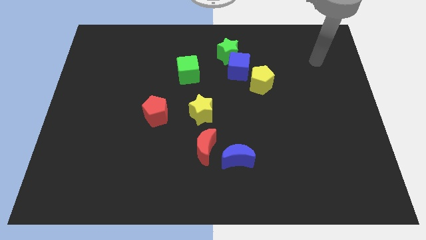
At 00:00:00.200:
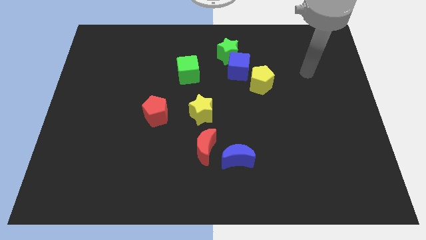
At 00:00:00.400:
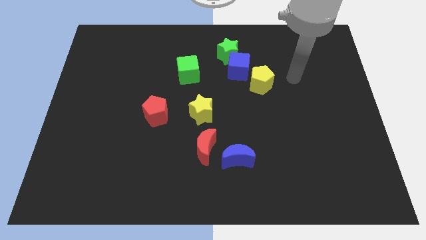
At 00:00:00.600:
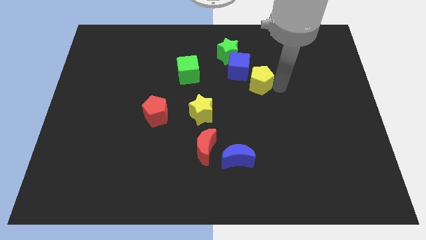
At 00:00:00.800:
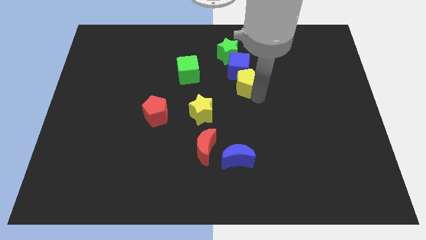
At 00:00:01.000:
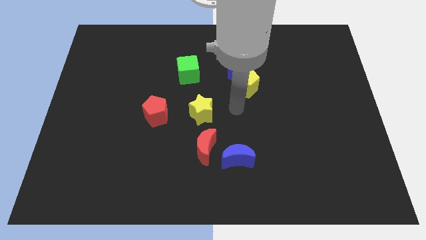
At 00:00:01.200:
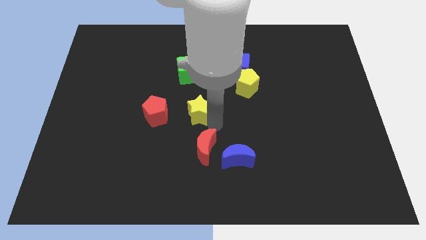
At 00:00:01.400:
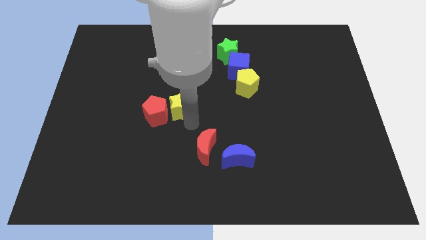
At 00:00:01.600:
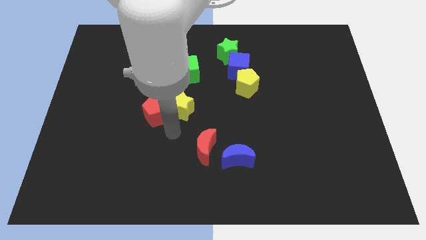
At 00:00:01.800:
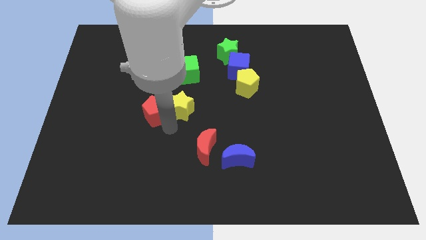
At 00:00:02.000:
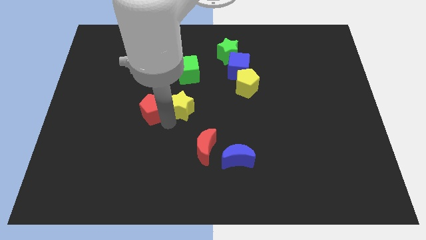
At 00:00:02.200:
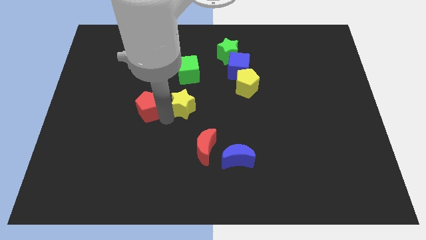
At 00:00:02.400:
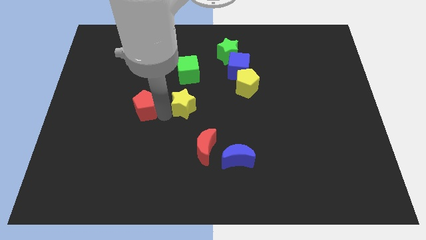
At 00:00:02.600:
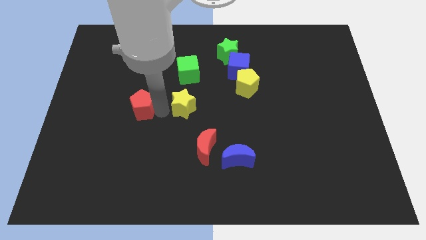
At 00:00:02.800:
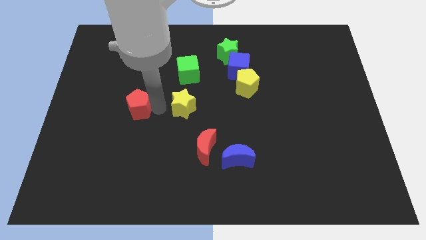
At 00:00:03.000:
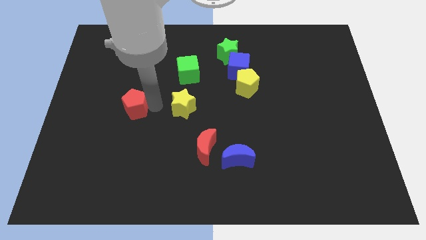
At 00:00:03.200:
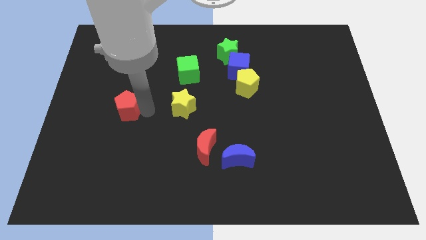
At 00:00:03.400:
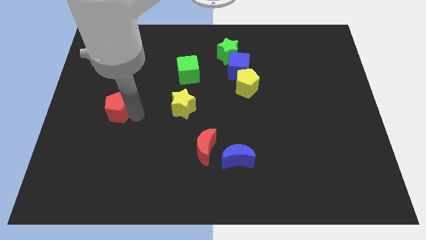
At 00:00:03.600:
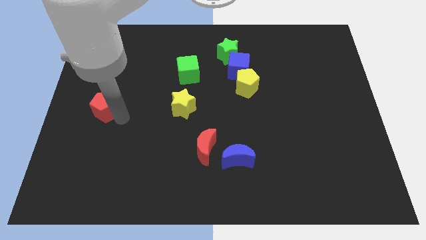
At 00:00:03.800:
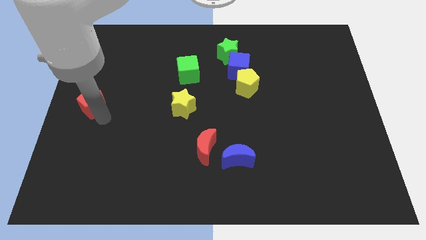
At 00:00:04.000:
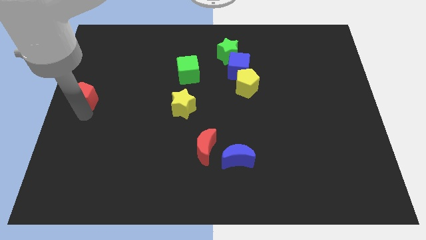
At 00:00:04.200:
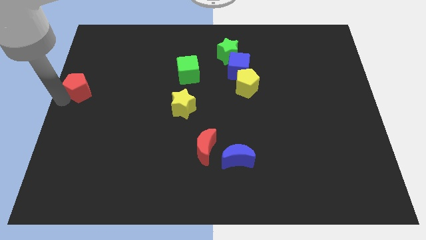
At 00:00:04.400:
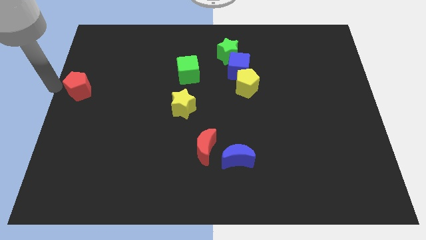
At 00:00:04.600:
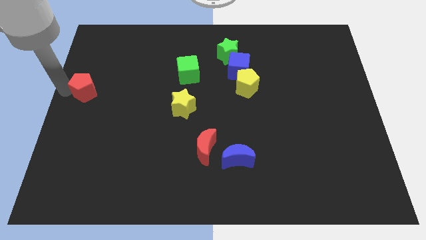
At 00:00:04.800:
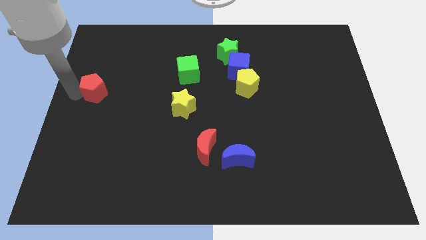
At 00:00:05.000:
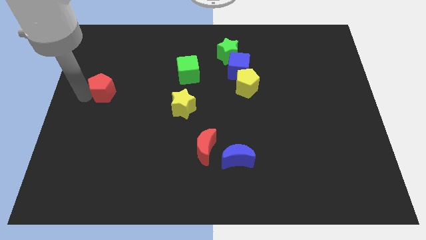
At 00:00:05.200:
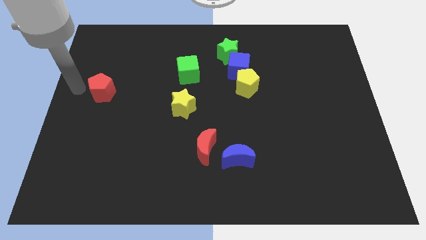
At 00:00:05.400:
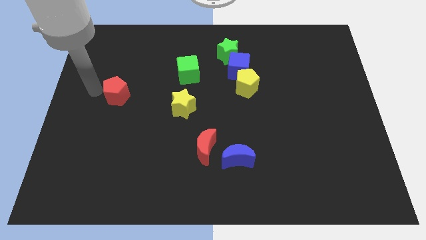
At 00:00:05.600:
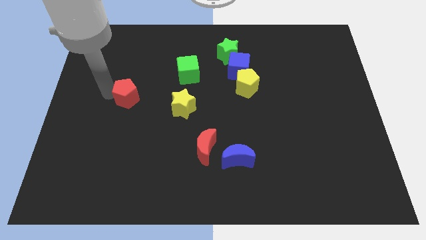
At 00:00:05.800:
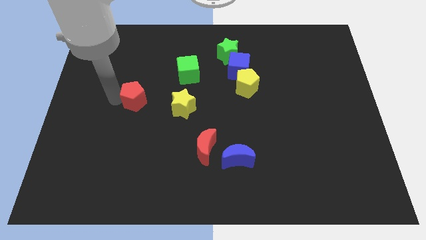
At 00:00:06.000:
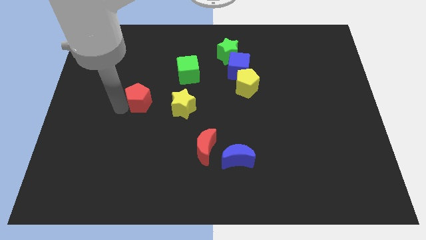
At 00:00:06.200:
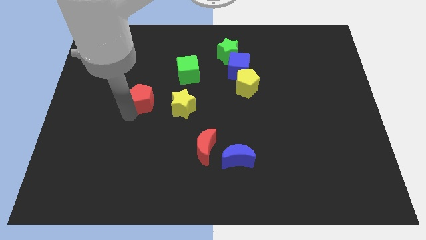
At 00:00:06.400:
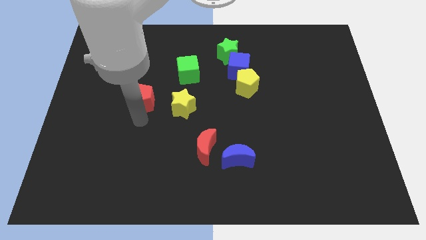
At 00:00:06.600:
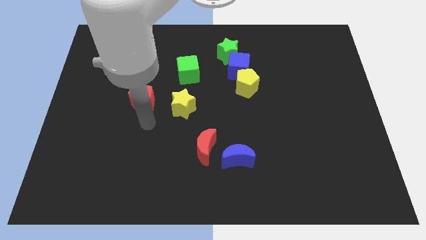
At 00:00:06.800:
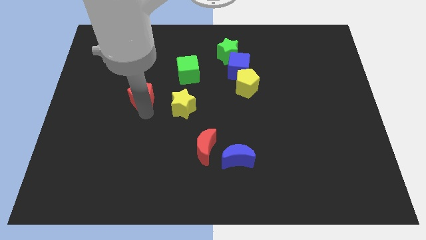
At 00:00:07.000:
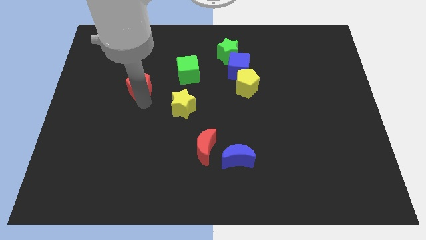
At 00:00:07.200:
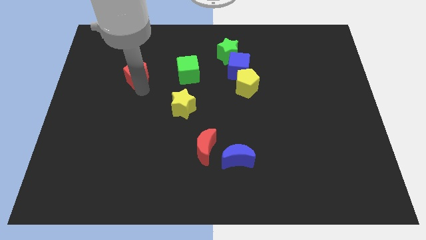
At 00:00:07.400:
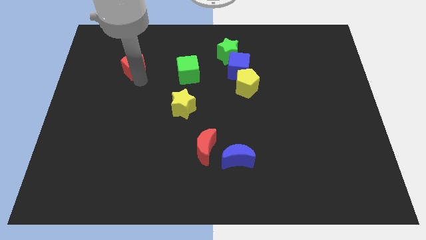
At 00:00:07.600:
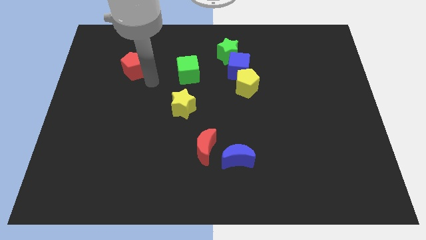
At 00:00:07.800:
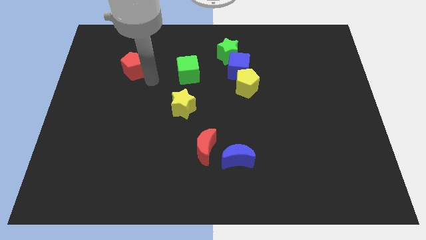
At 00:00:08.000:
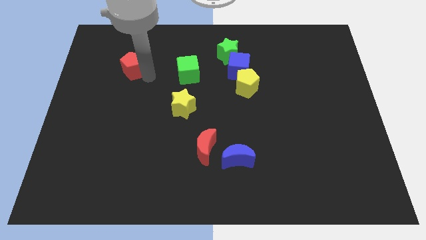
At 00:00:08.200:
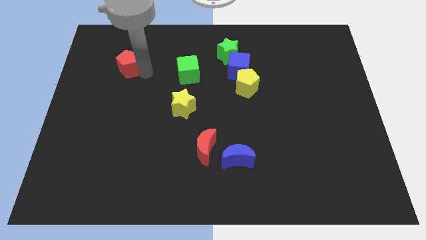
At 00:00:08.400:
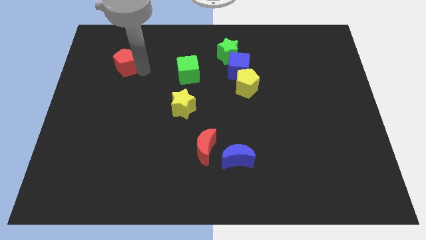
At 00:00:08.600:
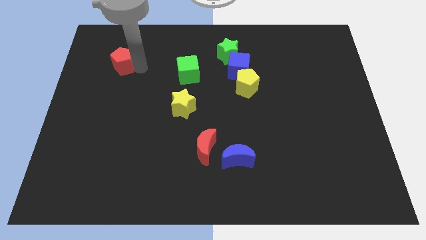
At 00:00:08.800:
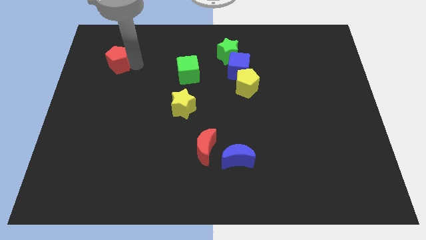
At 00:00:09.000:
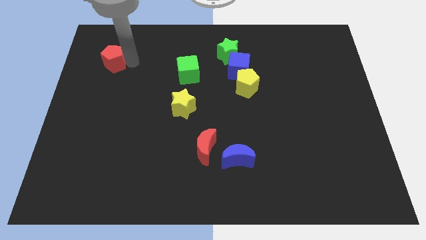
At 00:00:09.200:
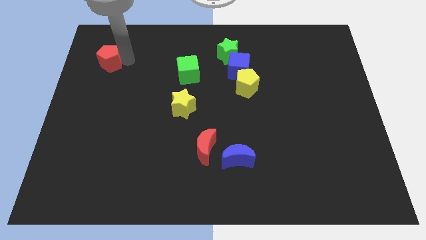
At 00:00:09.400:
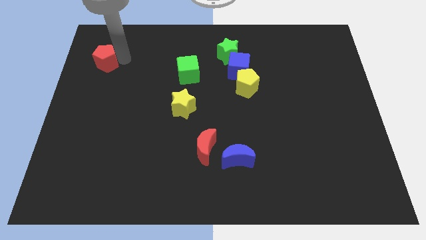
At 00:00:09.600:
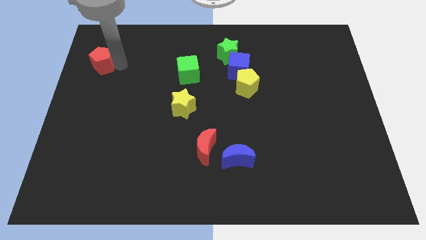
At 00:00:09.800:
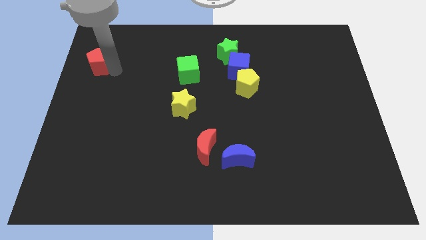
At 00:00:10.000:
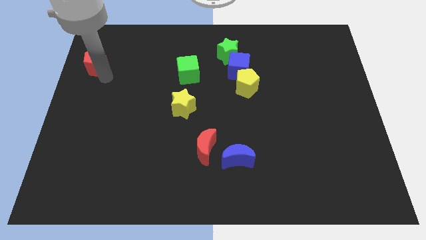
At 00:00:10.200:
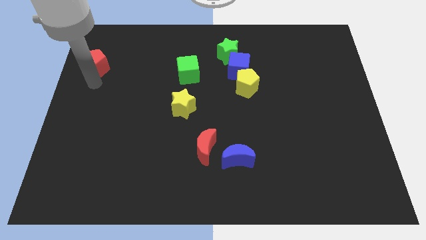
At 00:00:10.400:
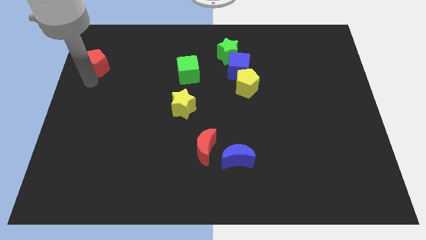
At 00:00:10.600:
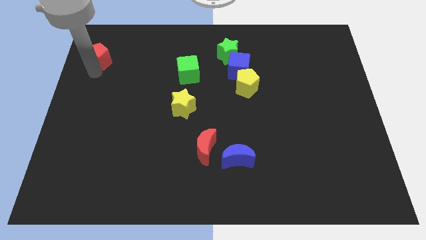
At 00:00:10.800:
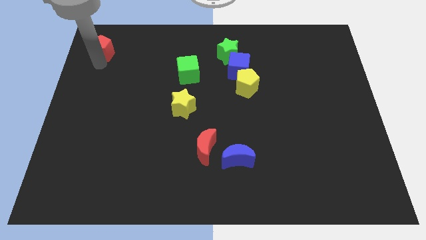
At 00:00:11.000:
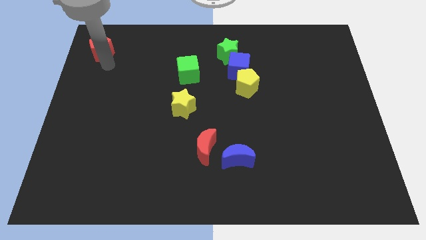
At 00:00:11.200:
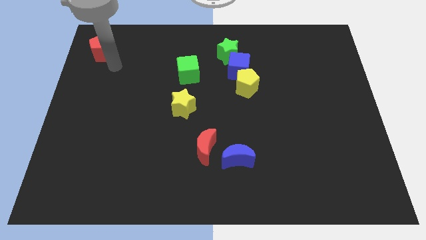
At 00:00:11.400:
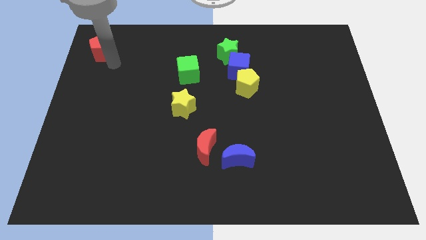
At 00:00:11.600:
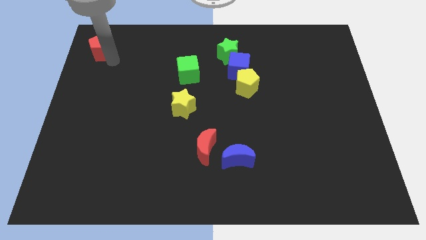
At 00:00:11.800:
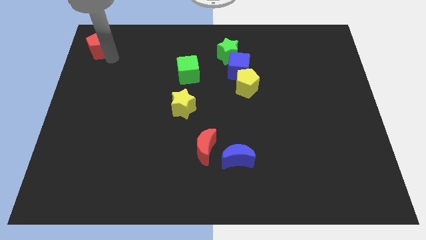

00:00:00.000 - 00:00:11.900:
move the red pentagon to the top left

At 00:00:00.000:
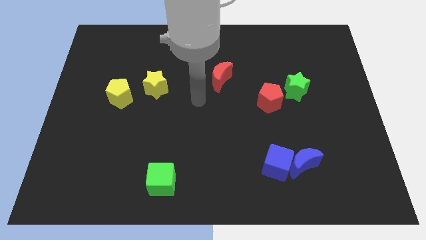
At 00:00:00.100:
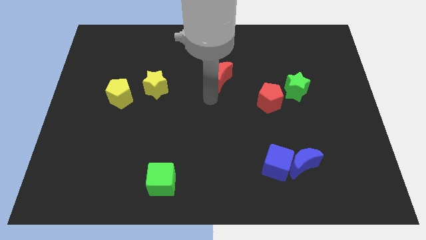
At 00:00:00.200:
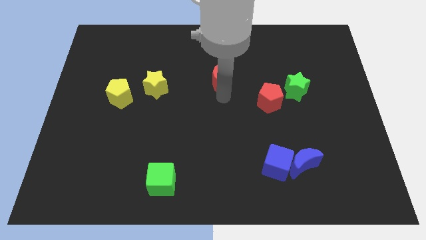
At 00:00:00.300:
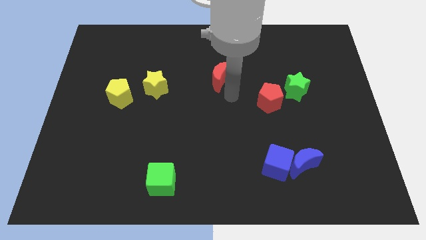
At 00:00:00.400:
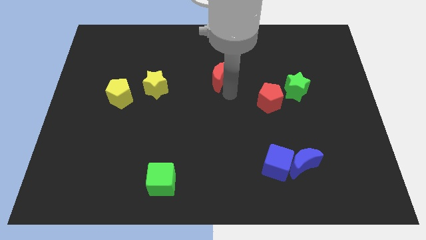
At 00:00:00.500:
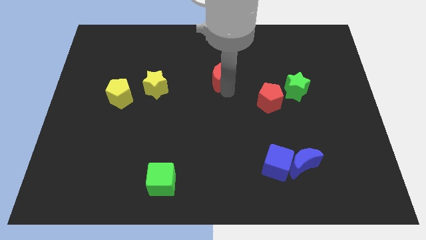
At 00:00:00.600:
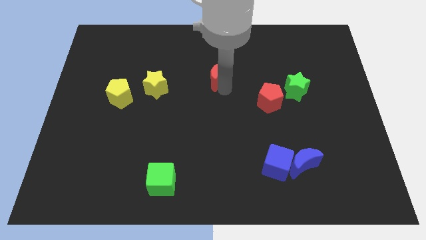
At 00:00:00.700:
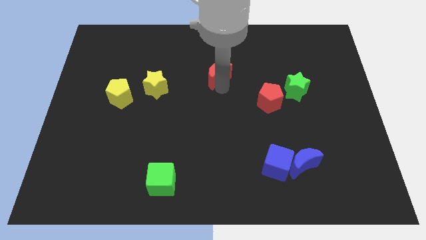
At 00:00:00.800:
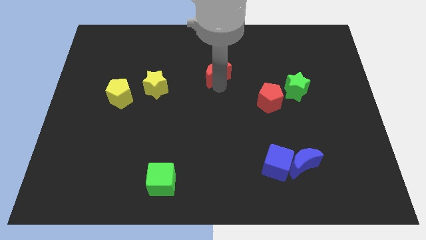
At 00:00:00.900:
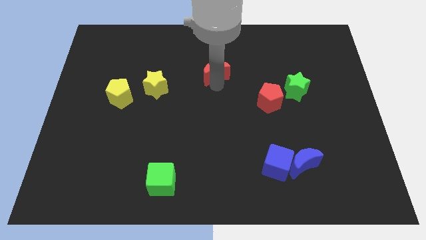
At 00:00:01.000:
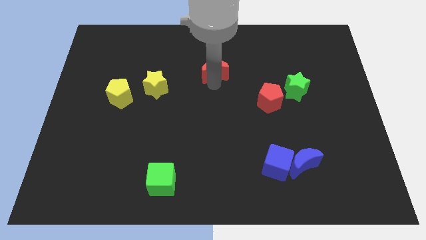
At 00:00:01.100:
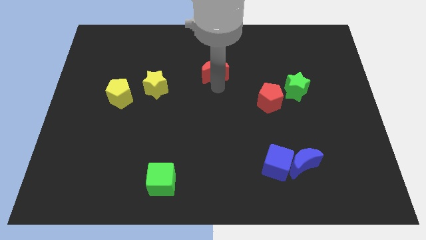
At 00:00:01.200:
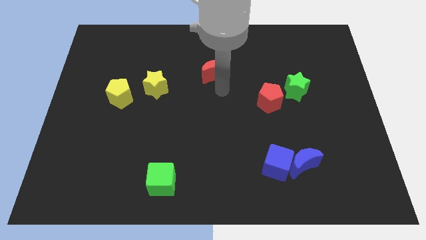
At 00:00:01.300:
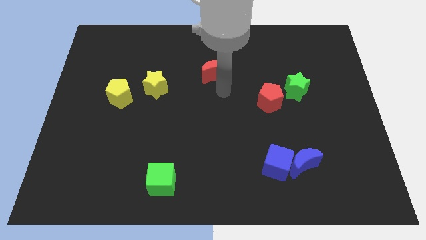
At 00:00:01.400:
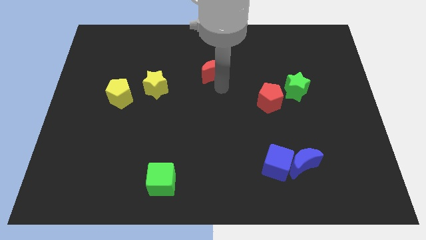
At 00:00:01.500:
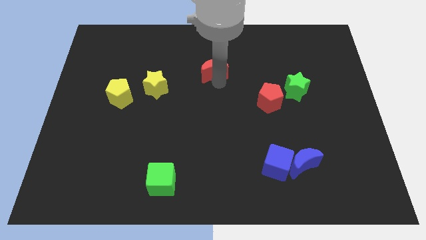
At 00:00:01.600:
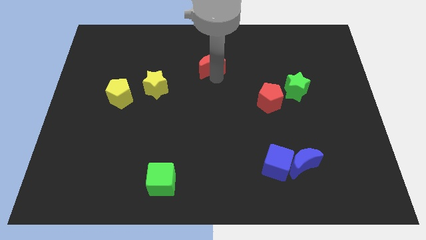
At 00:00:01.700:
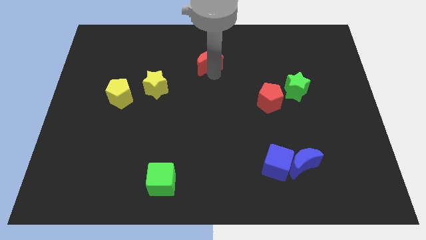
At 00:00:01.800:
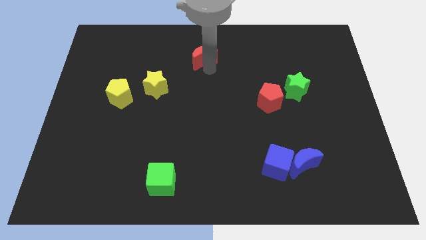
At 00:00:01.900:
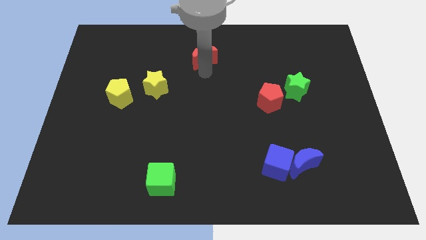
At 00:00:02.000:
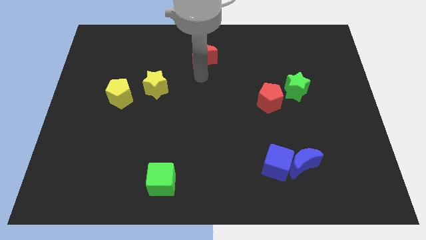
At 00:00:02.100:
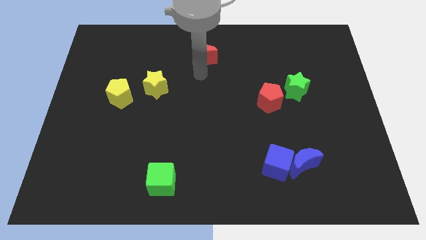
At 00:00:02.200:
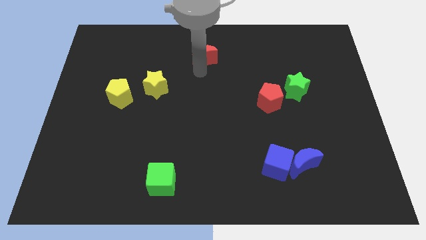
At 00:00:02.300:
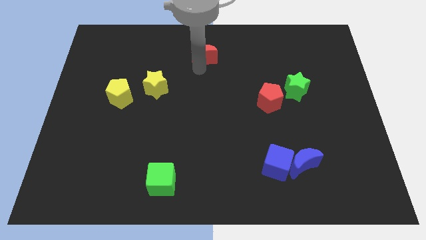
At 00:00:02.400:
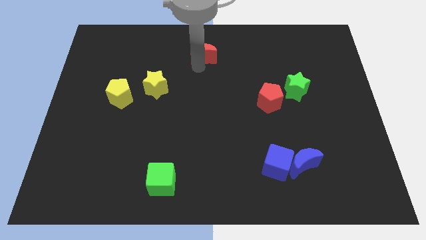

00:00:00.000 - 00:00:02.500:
slide the red moon to the top side
